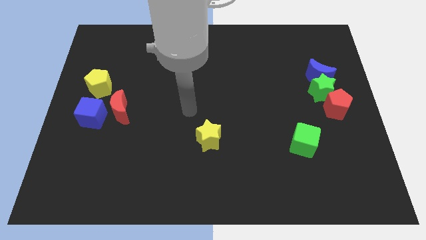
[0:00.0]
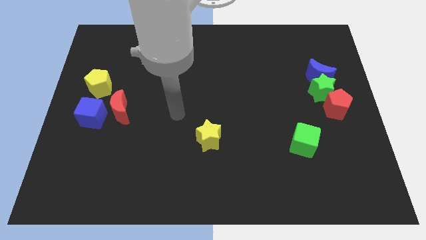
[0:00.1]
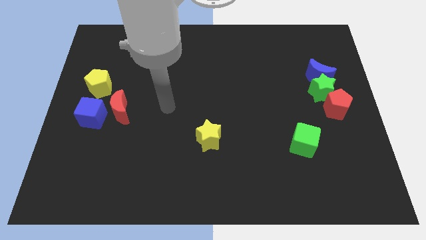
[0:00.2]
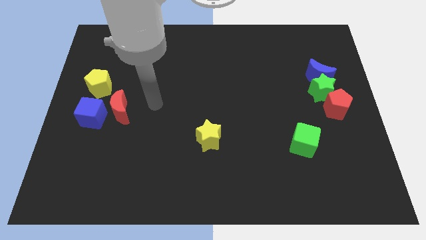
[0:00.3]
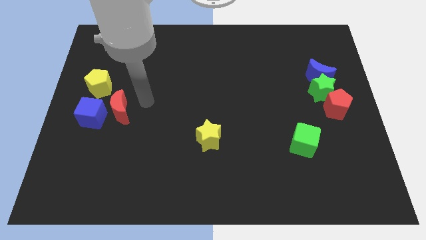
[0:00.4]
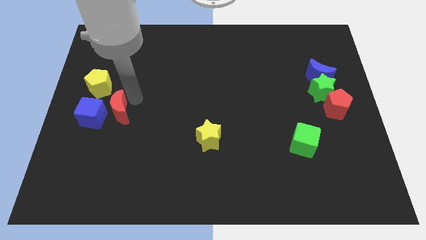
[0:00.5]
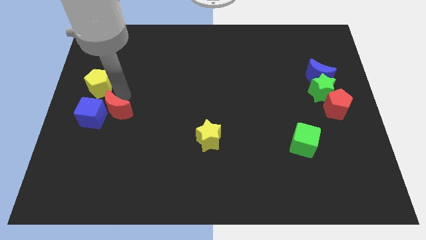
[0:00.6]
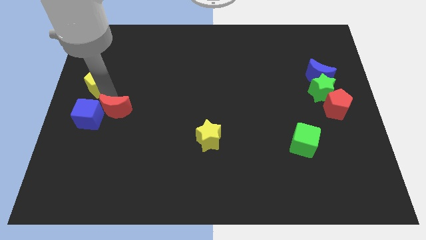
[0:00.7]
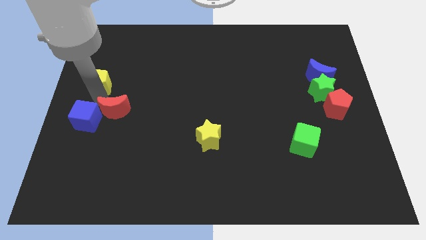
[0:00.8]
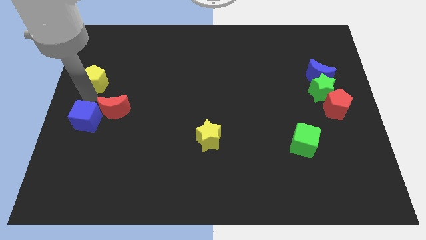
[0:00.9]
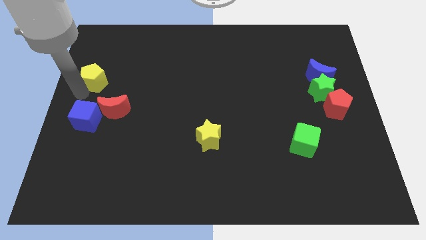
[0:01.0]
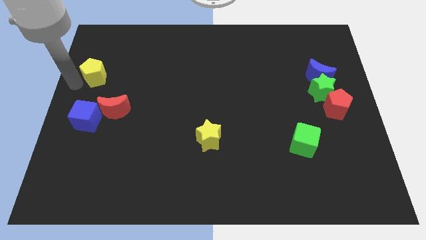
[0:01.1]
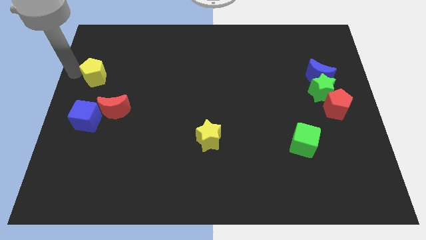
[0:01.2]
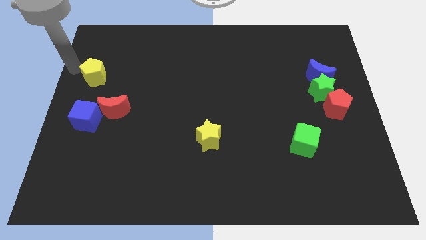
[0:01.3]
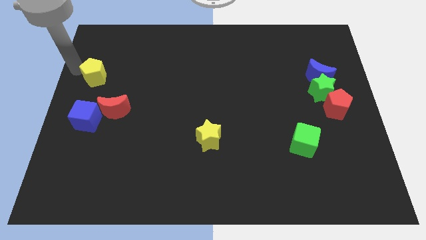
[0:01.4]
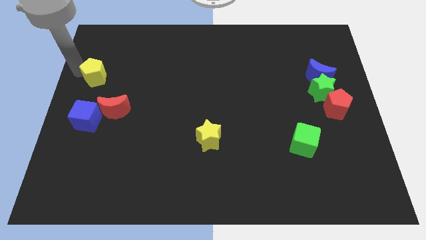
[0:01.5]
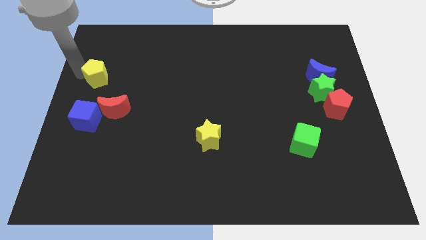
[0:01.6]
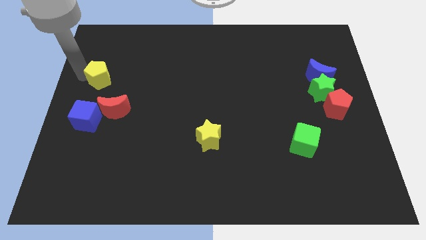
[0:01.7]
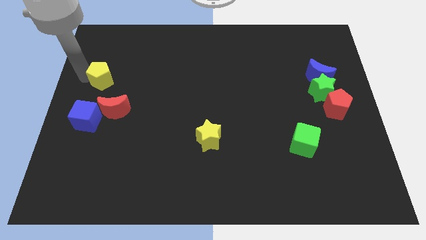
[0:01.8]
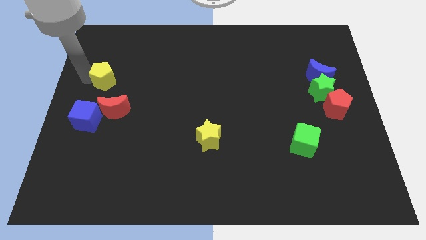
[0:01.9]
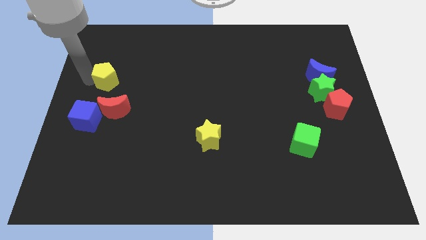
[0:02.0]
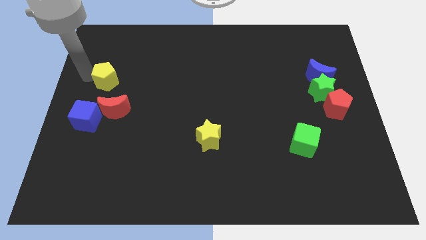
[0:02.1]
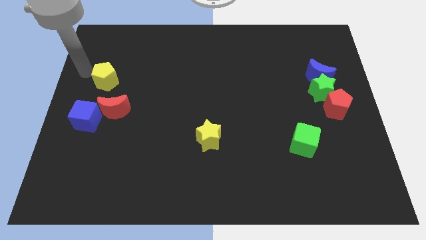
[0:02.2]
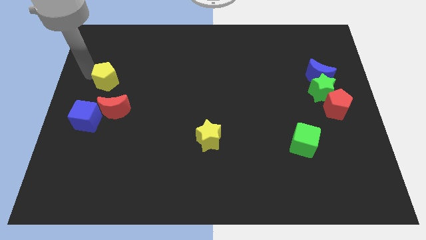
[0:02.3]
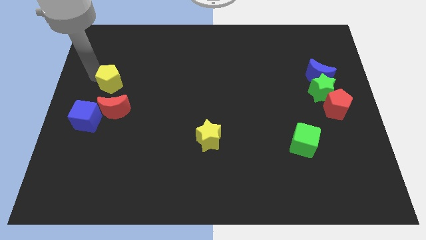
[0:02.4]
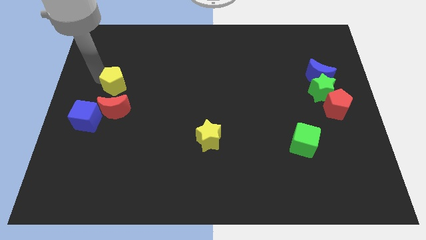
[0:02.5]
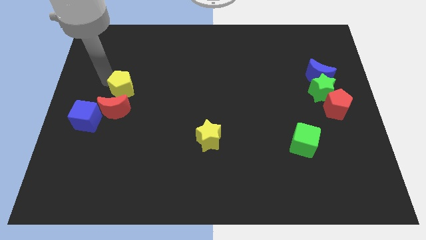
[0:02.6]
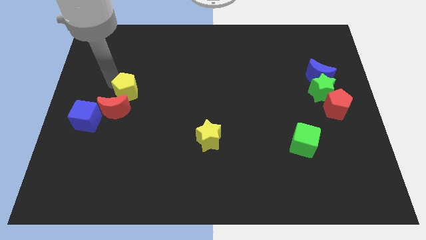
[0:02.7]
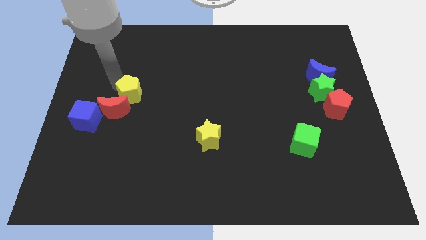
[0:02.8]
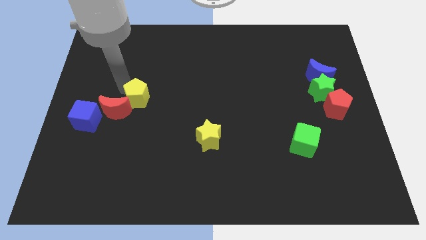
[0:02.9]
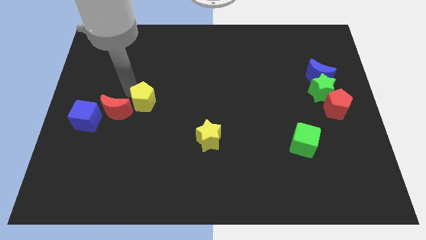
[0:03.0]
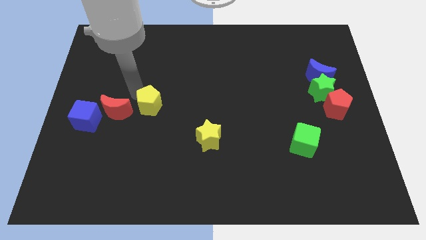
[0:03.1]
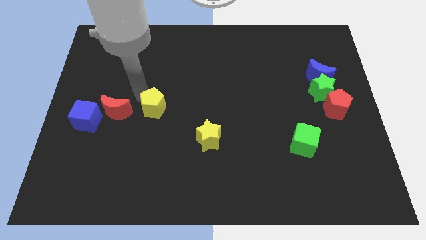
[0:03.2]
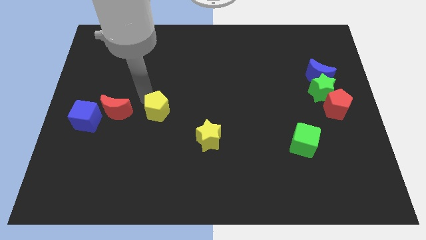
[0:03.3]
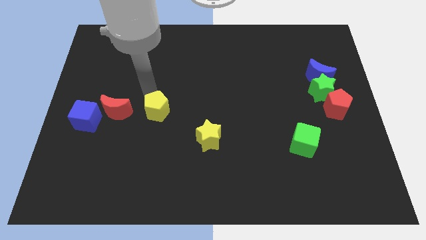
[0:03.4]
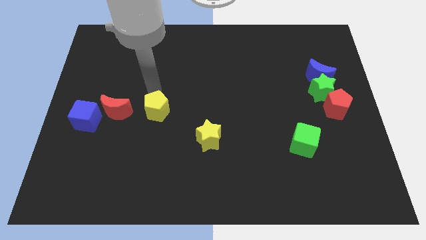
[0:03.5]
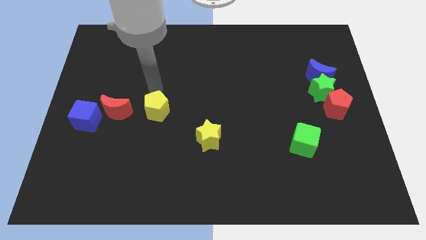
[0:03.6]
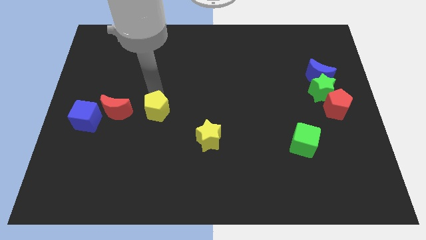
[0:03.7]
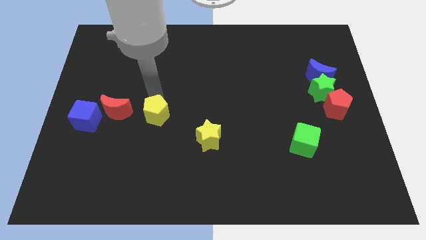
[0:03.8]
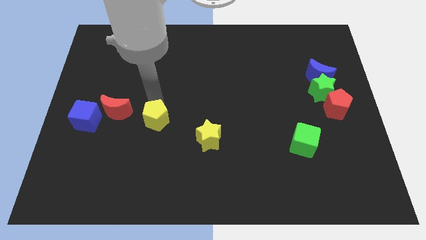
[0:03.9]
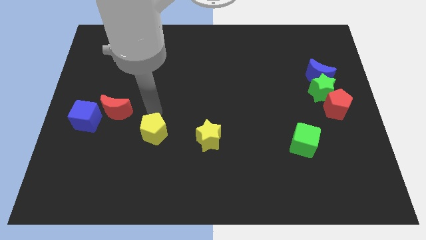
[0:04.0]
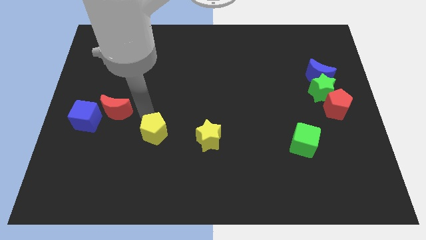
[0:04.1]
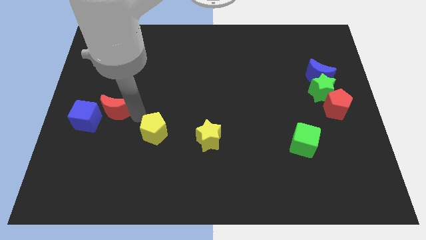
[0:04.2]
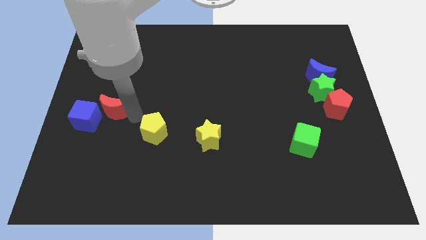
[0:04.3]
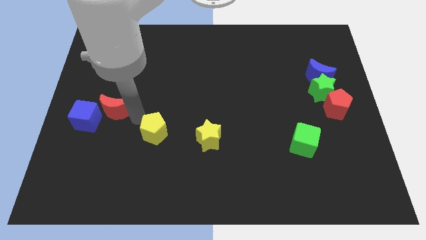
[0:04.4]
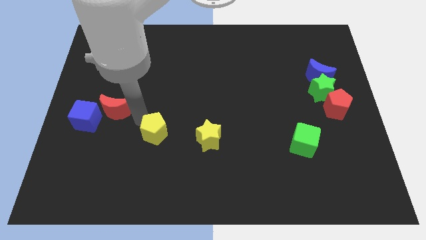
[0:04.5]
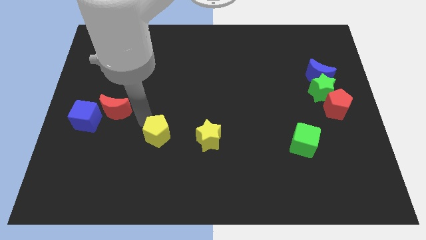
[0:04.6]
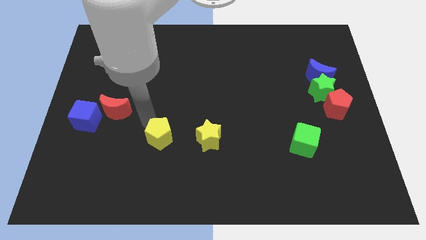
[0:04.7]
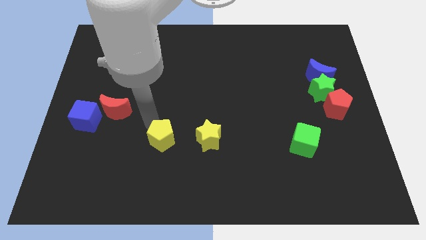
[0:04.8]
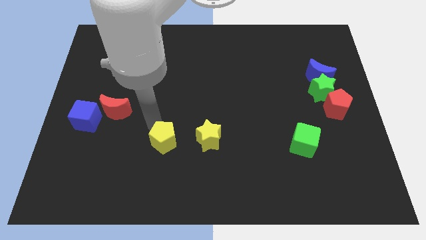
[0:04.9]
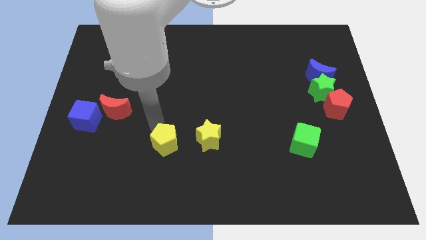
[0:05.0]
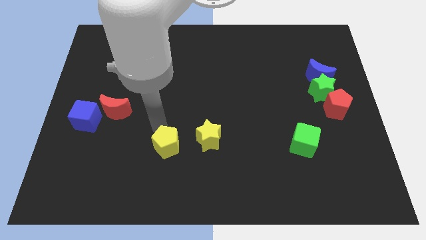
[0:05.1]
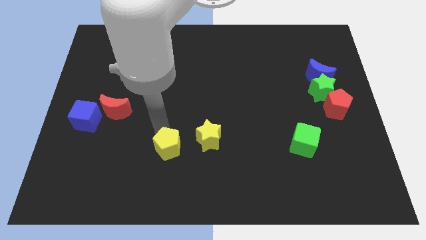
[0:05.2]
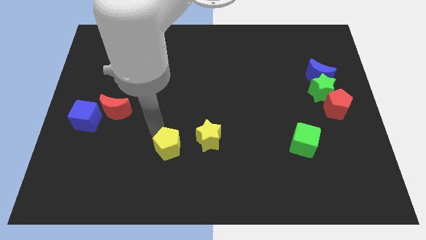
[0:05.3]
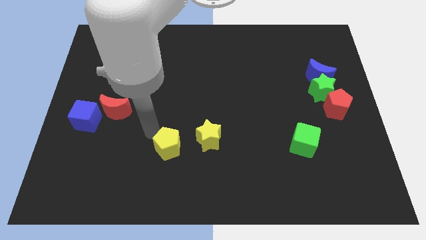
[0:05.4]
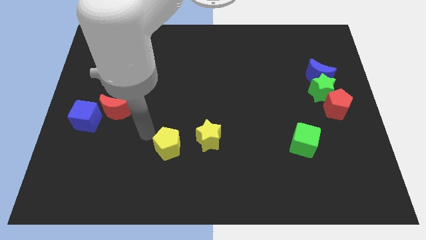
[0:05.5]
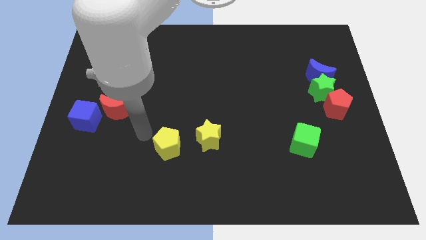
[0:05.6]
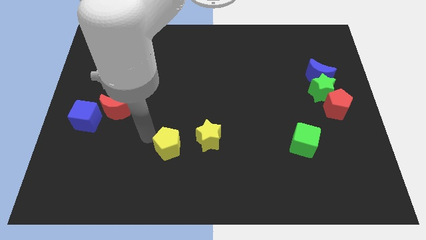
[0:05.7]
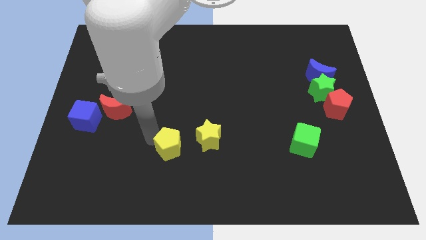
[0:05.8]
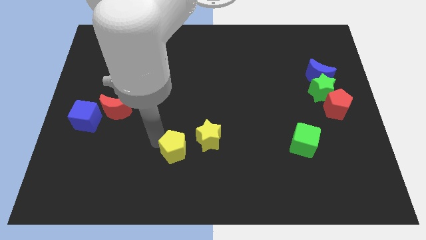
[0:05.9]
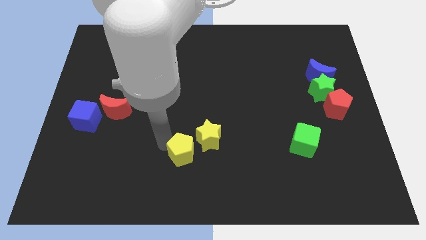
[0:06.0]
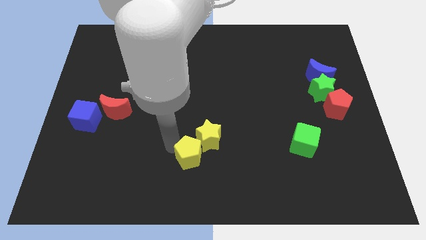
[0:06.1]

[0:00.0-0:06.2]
slide the yellow pentagon to the bottom side of the yellow star

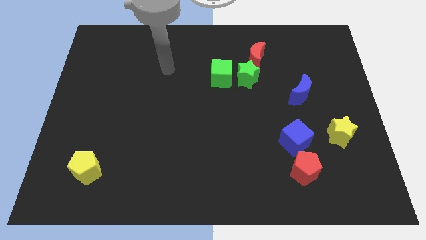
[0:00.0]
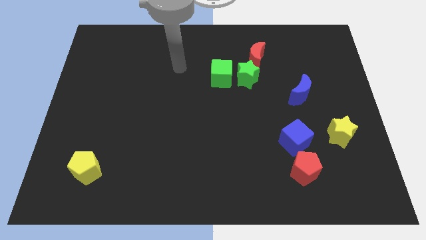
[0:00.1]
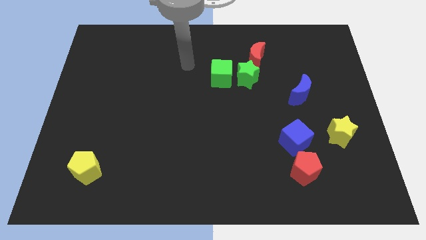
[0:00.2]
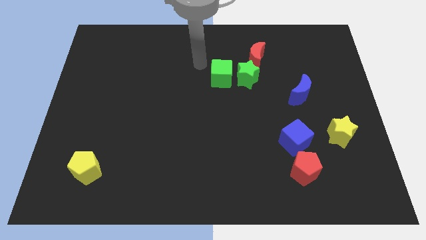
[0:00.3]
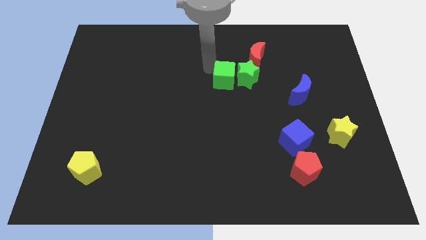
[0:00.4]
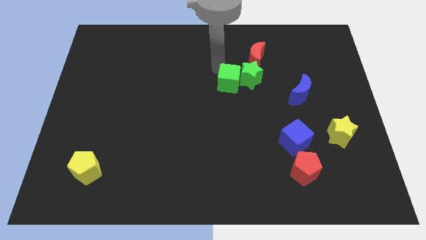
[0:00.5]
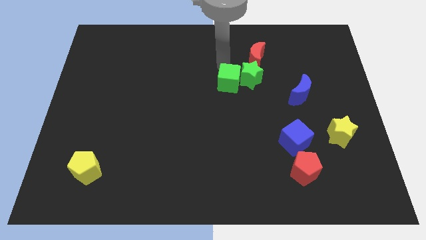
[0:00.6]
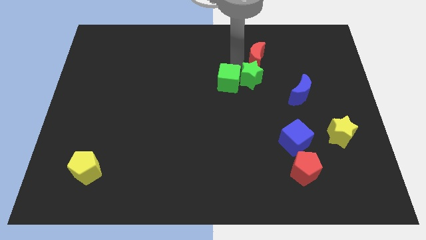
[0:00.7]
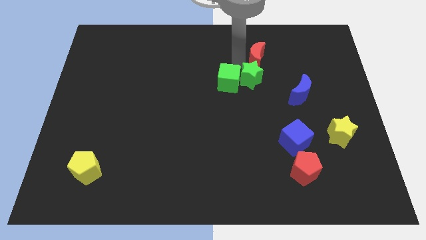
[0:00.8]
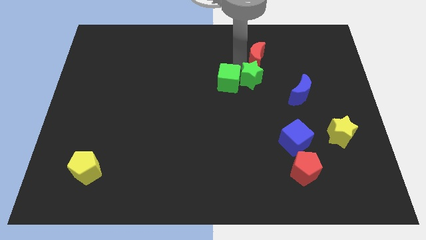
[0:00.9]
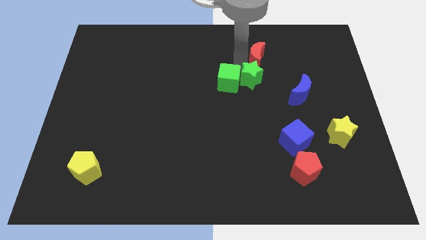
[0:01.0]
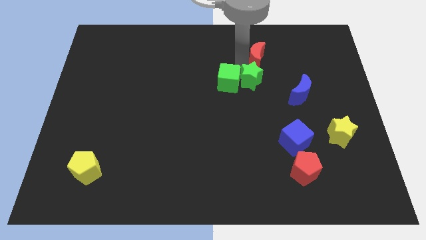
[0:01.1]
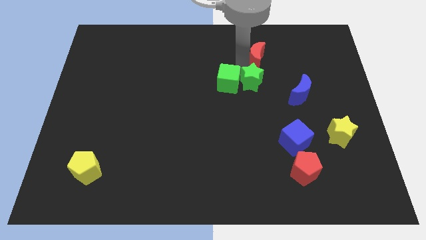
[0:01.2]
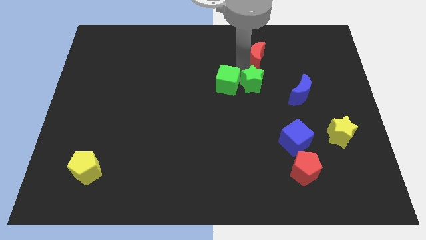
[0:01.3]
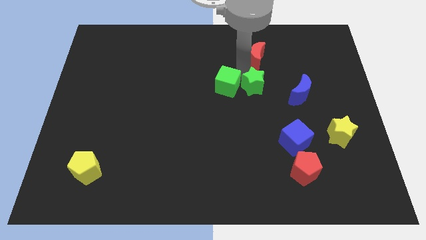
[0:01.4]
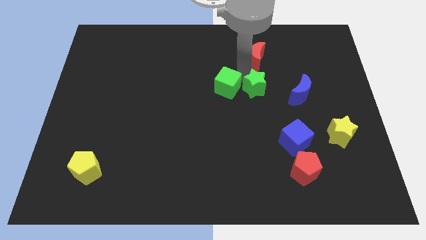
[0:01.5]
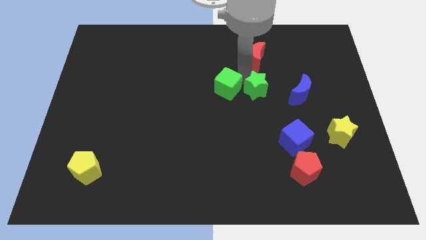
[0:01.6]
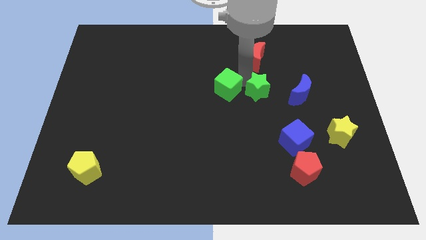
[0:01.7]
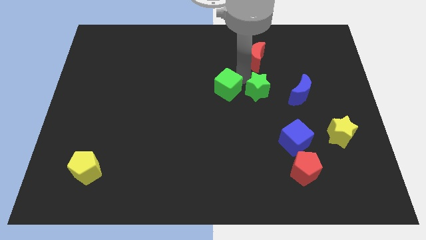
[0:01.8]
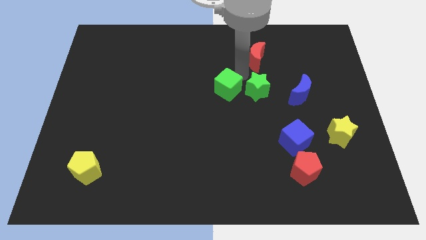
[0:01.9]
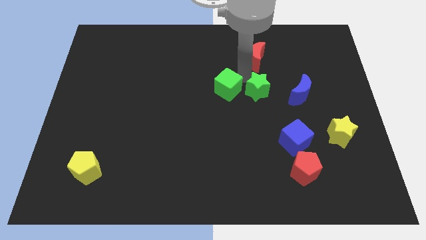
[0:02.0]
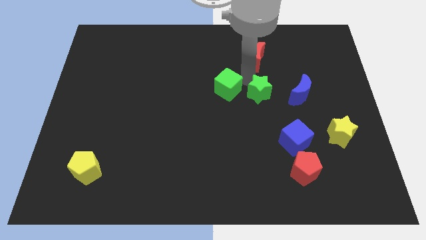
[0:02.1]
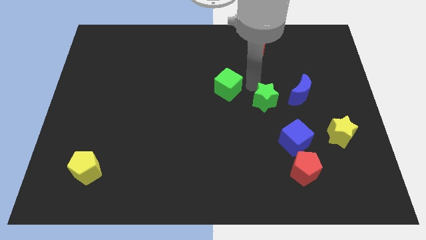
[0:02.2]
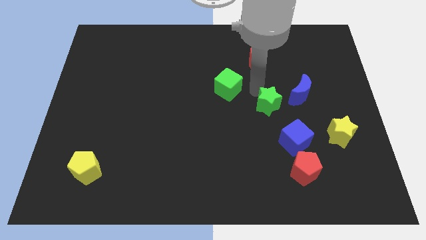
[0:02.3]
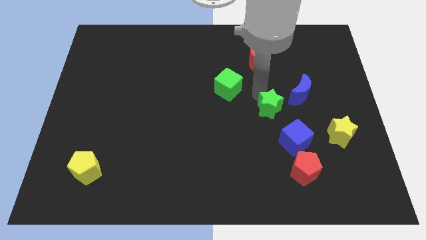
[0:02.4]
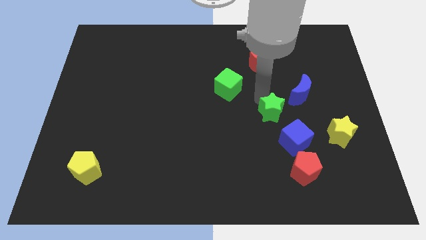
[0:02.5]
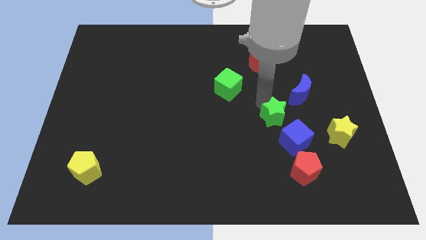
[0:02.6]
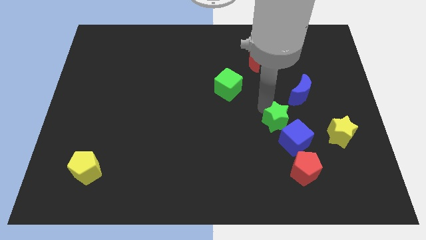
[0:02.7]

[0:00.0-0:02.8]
put the green star to the top side of the red pentagon
